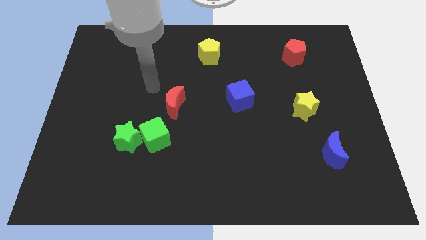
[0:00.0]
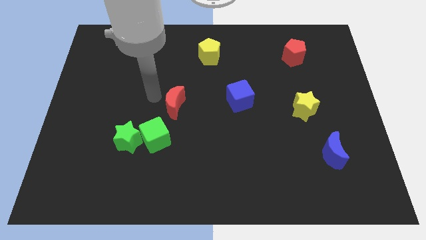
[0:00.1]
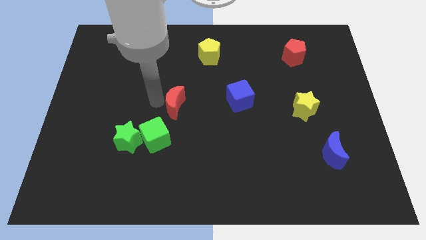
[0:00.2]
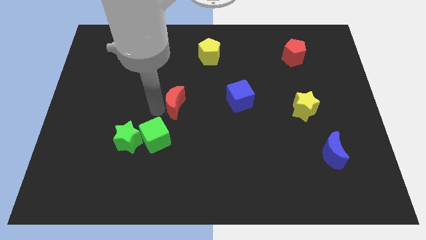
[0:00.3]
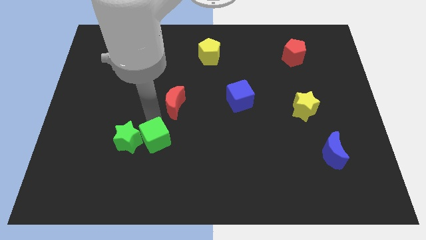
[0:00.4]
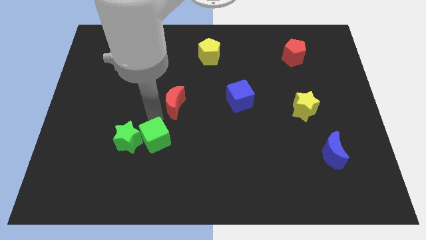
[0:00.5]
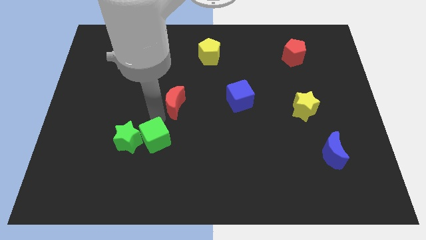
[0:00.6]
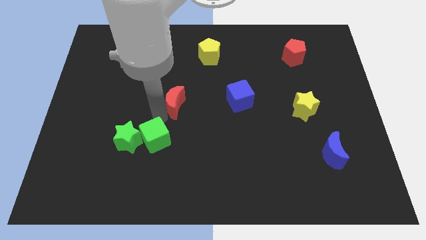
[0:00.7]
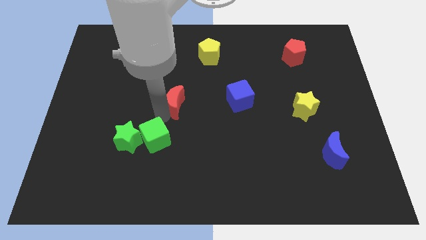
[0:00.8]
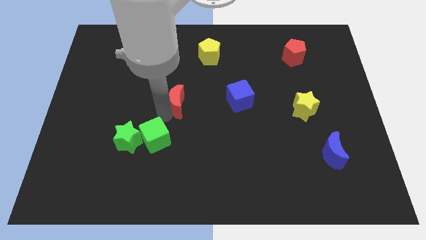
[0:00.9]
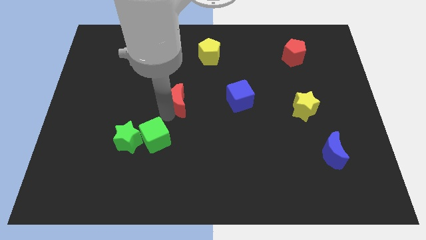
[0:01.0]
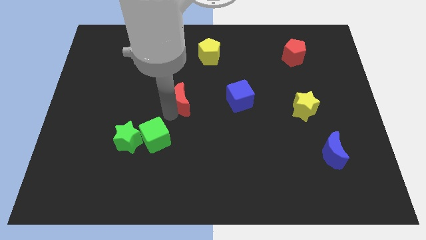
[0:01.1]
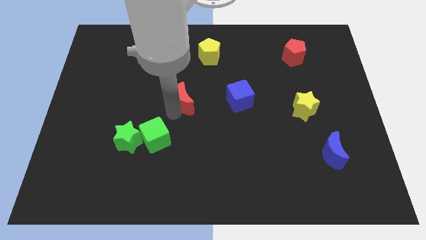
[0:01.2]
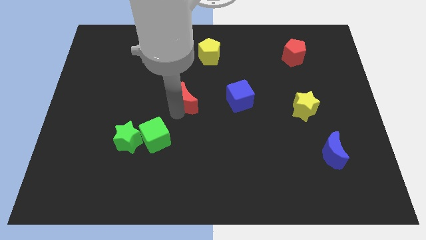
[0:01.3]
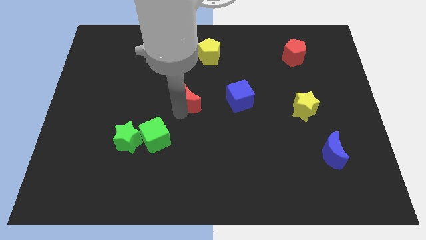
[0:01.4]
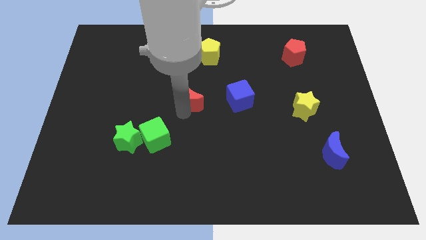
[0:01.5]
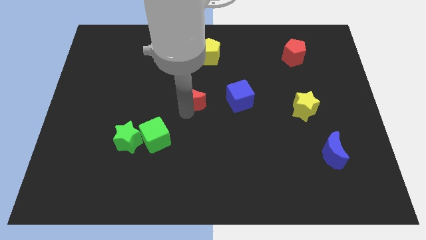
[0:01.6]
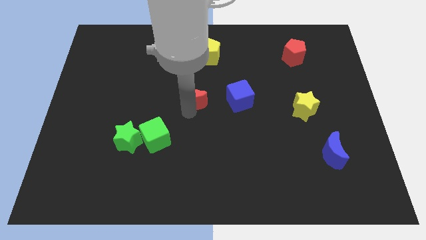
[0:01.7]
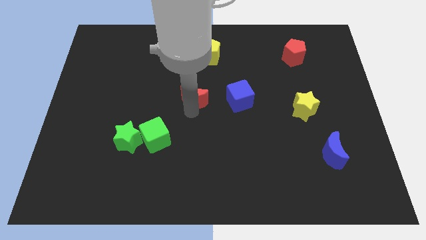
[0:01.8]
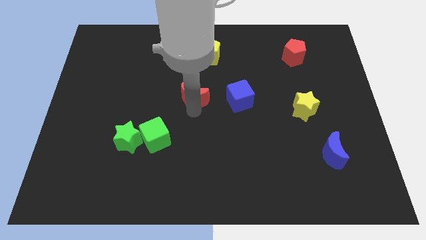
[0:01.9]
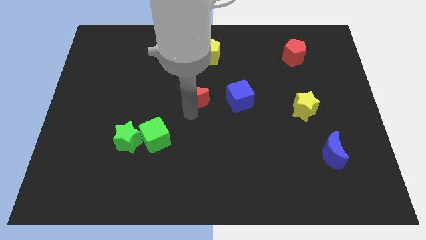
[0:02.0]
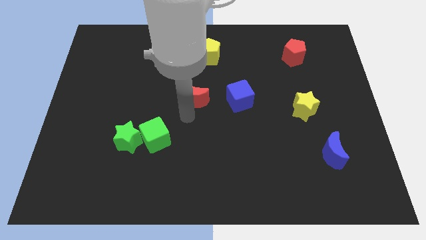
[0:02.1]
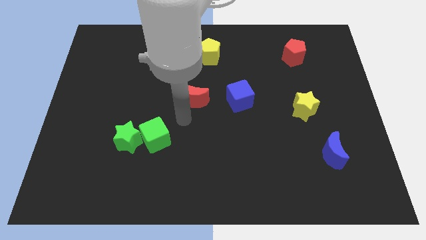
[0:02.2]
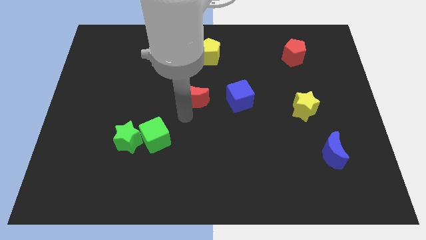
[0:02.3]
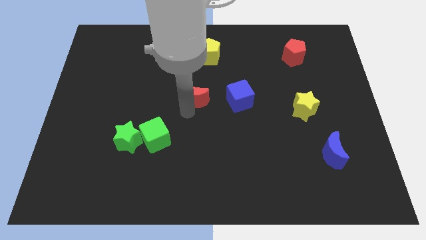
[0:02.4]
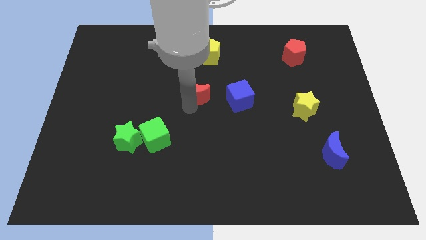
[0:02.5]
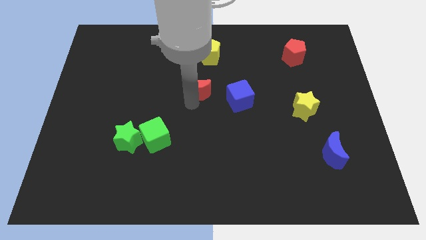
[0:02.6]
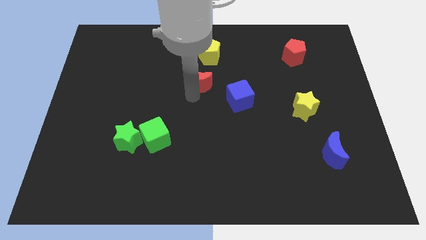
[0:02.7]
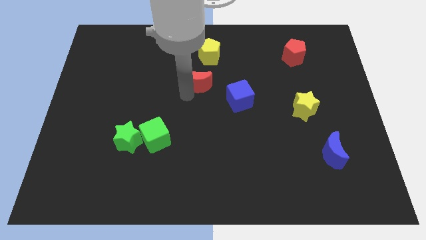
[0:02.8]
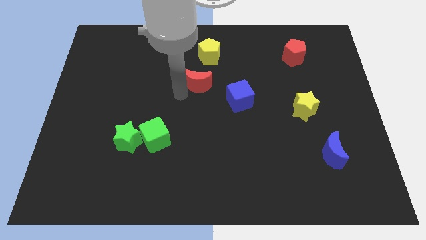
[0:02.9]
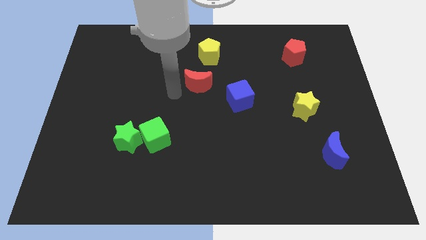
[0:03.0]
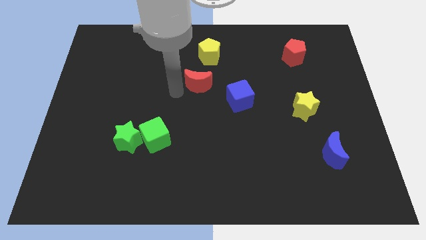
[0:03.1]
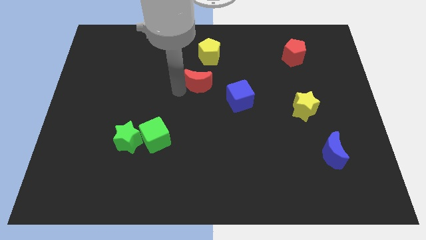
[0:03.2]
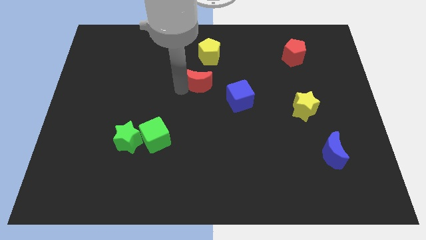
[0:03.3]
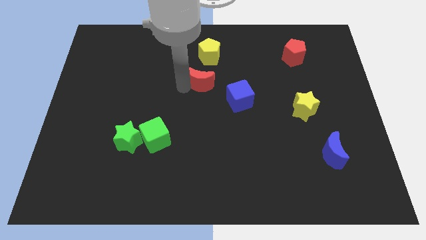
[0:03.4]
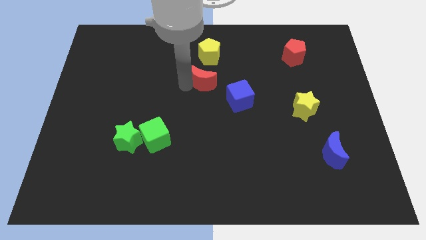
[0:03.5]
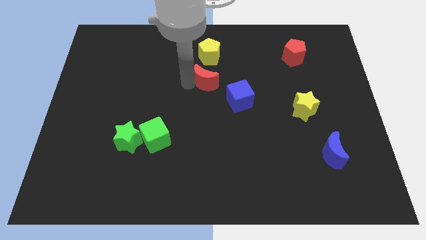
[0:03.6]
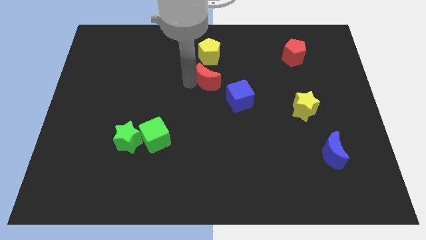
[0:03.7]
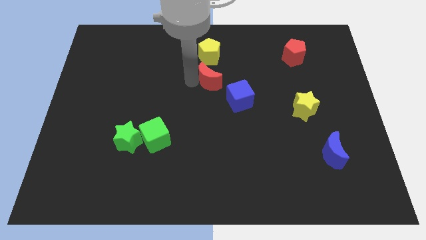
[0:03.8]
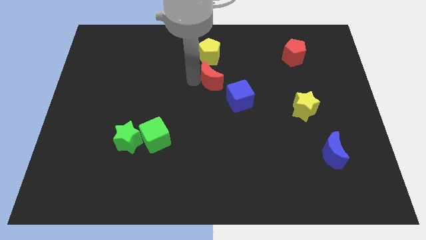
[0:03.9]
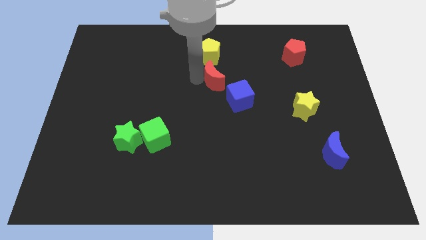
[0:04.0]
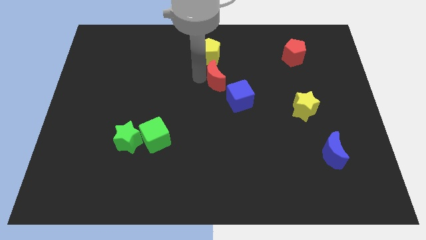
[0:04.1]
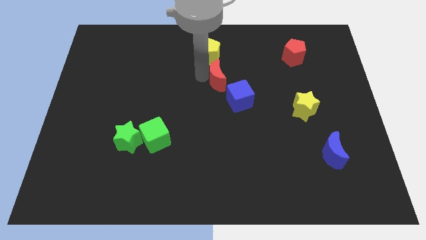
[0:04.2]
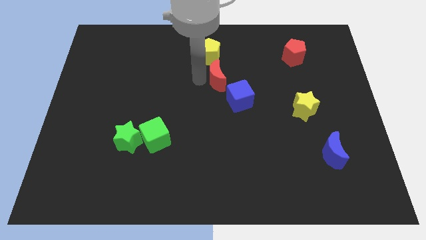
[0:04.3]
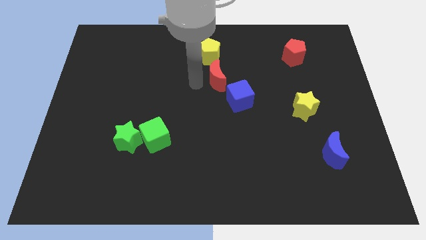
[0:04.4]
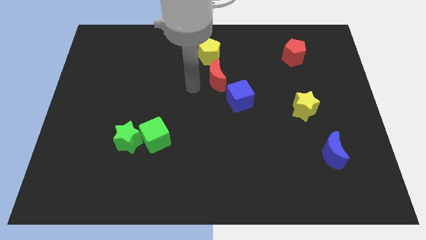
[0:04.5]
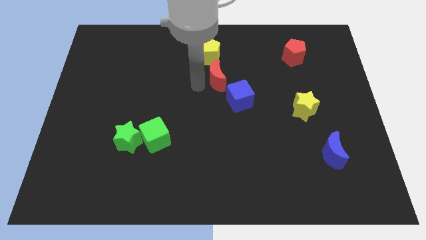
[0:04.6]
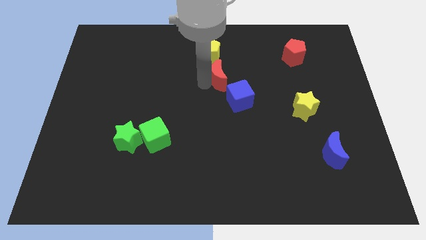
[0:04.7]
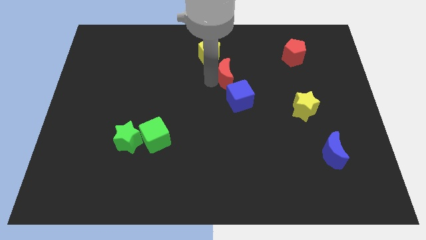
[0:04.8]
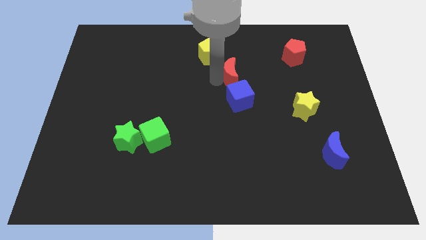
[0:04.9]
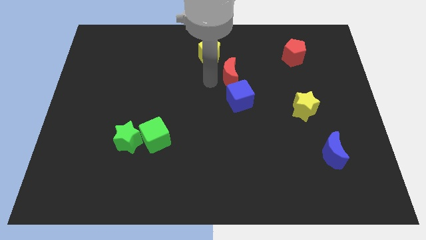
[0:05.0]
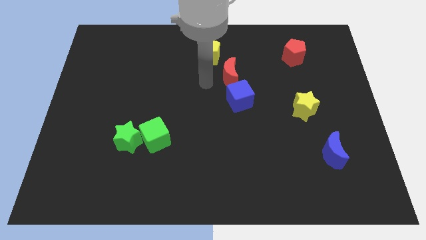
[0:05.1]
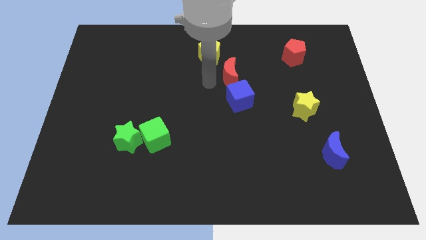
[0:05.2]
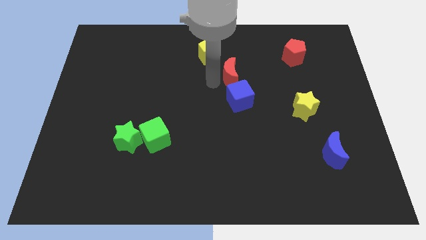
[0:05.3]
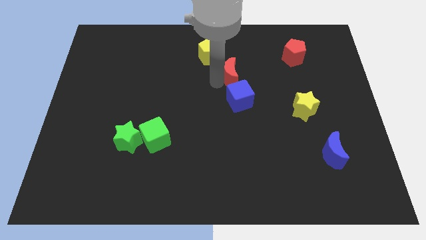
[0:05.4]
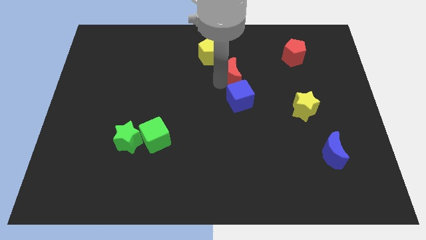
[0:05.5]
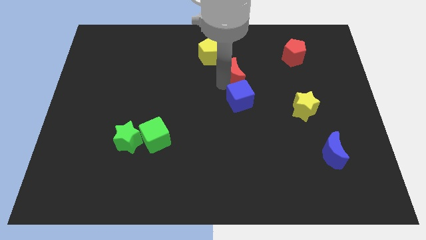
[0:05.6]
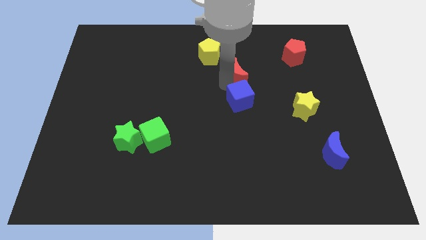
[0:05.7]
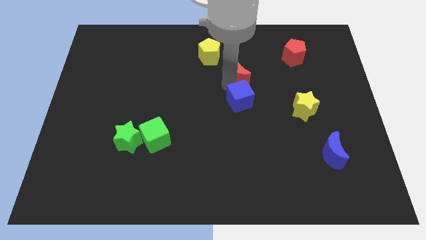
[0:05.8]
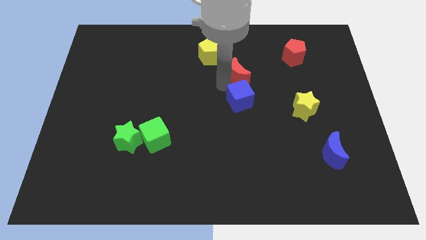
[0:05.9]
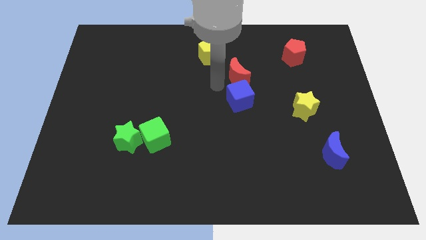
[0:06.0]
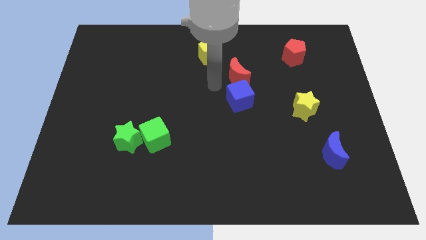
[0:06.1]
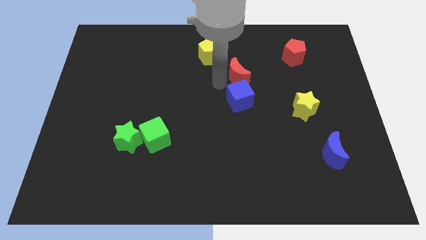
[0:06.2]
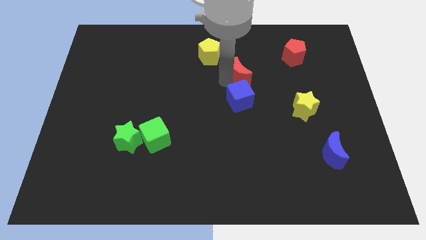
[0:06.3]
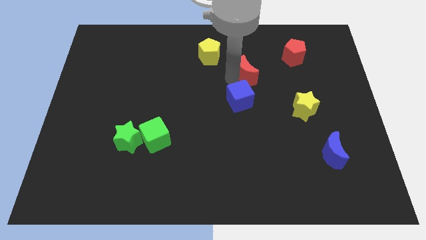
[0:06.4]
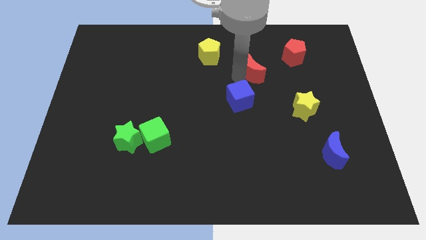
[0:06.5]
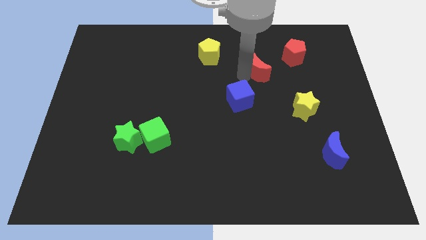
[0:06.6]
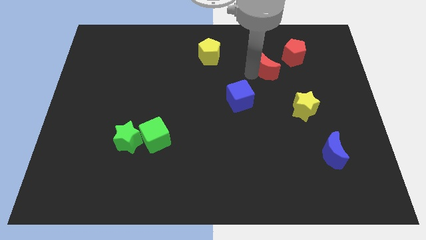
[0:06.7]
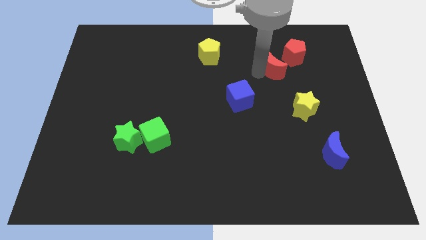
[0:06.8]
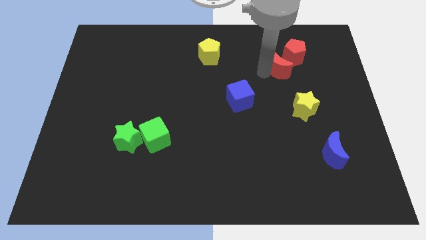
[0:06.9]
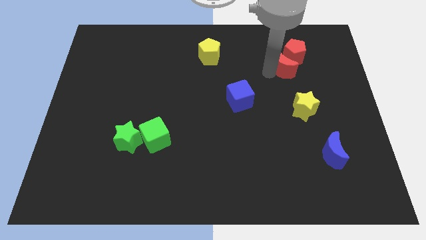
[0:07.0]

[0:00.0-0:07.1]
slide the red moon close to the red pentagon
